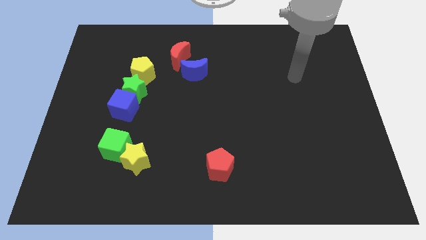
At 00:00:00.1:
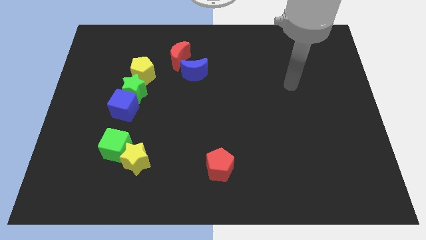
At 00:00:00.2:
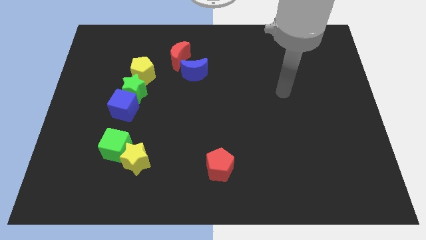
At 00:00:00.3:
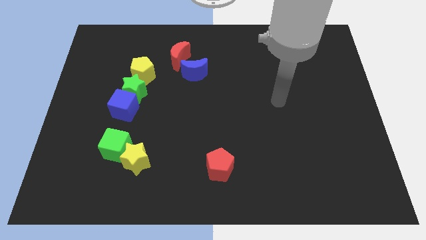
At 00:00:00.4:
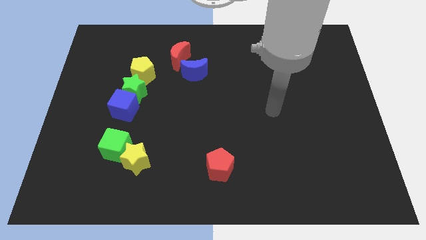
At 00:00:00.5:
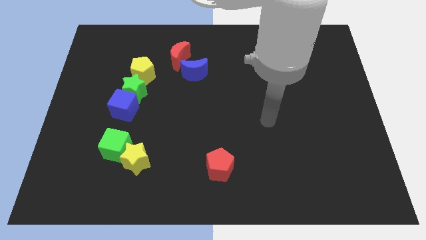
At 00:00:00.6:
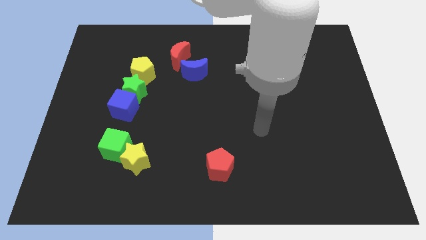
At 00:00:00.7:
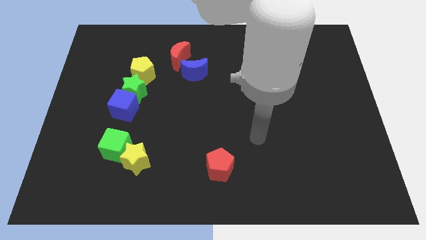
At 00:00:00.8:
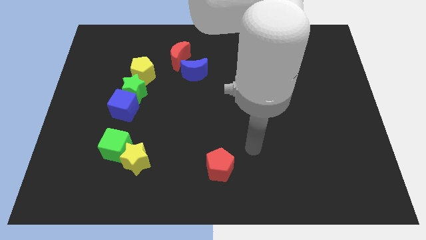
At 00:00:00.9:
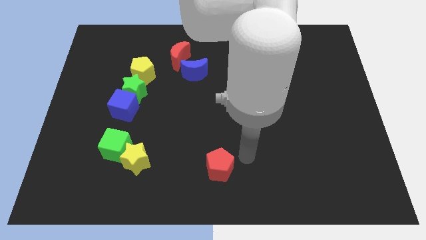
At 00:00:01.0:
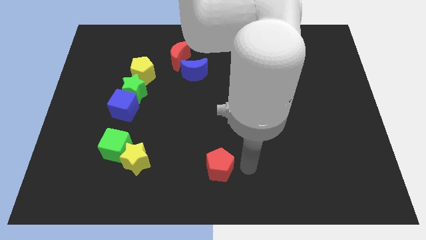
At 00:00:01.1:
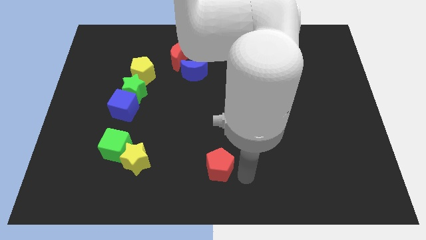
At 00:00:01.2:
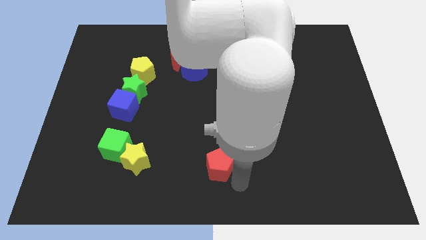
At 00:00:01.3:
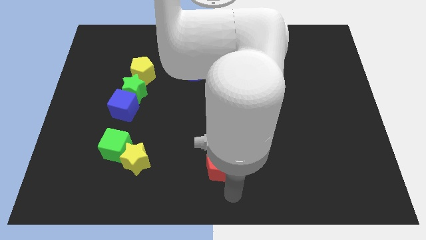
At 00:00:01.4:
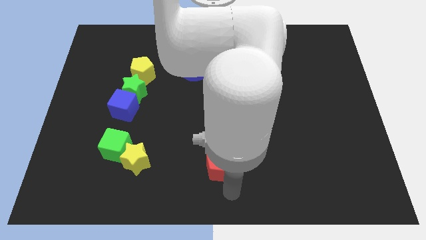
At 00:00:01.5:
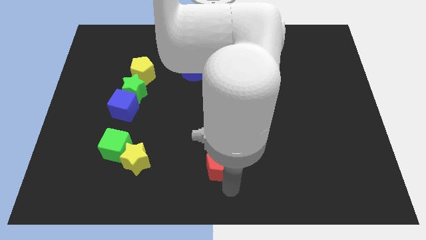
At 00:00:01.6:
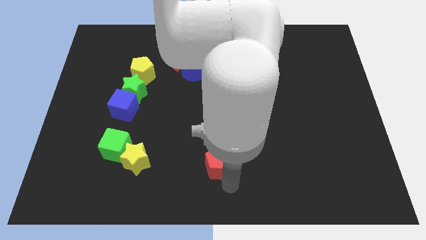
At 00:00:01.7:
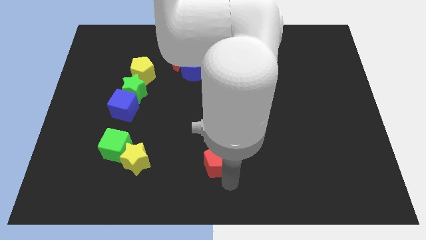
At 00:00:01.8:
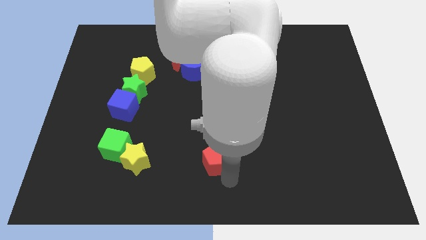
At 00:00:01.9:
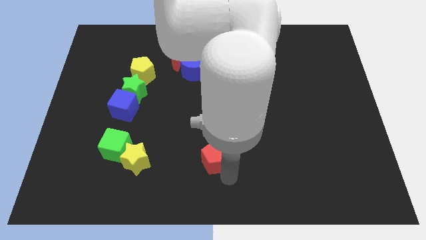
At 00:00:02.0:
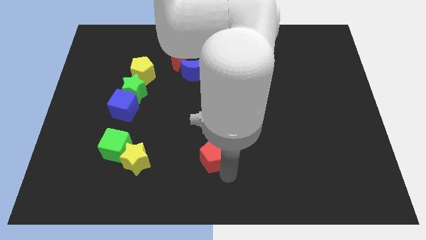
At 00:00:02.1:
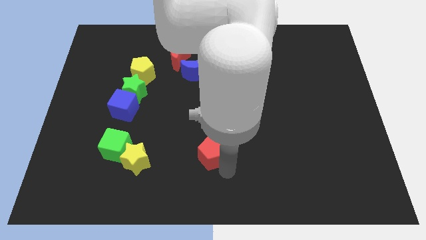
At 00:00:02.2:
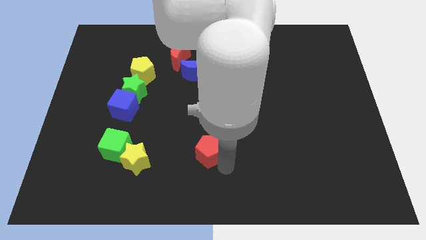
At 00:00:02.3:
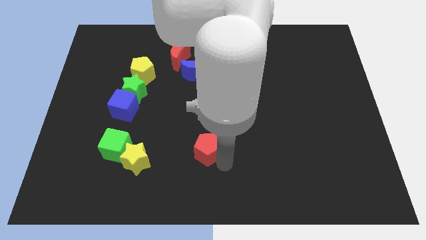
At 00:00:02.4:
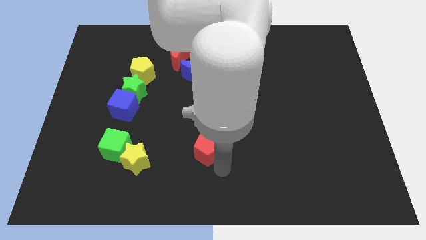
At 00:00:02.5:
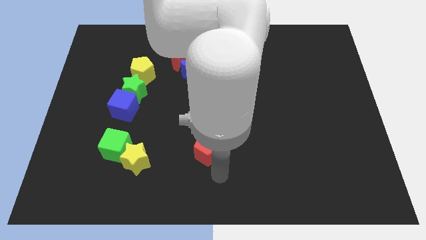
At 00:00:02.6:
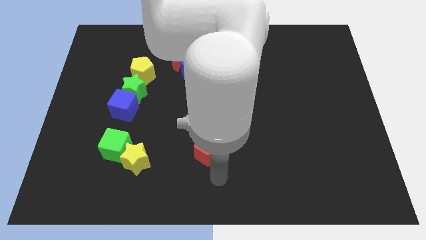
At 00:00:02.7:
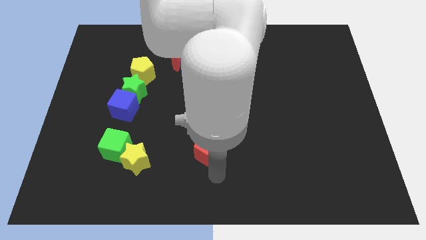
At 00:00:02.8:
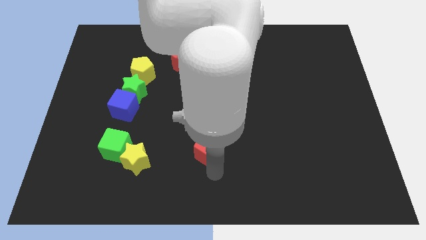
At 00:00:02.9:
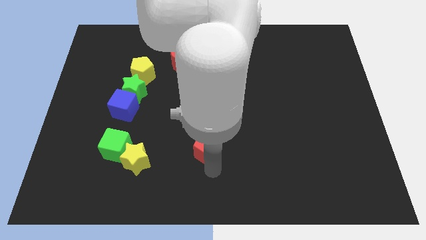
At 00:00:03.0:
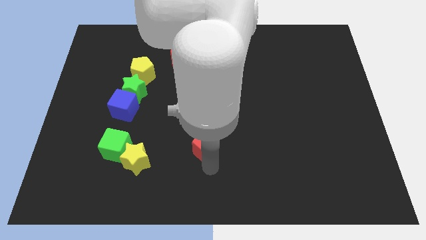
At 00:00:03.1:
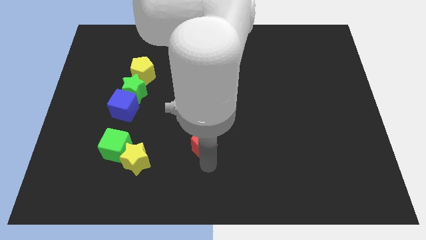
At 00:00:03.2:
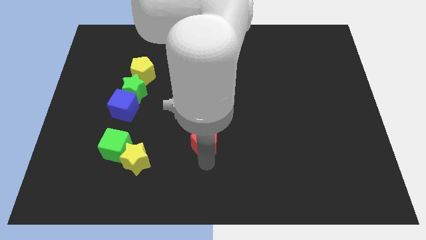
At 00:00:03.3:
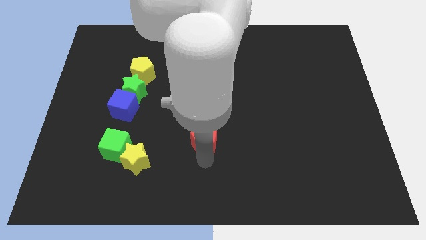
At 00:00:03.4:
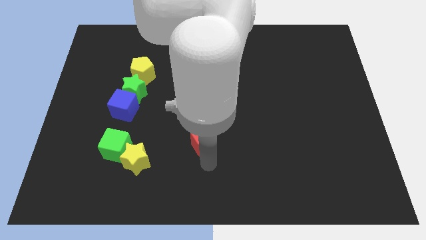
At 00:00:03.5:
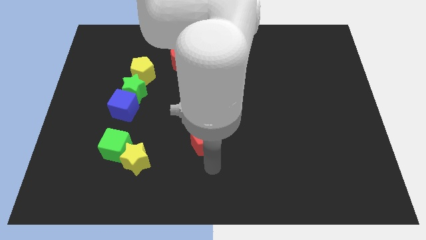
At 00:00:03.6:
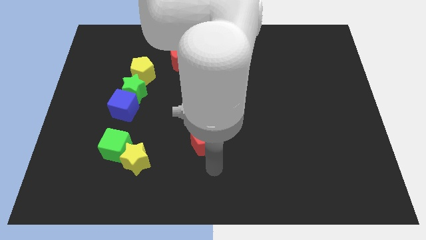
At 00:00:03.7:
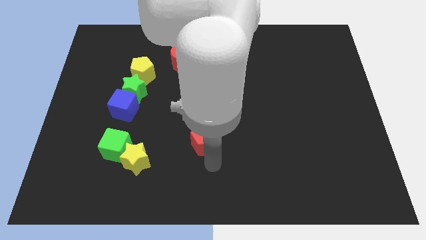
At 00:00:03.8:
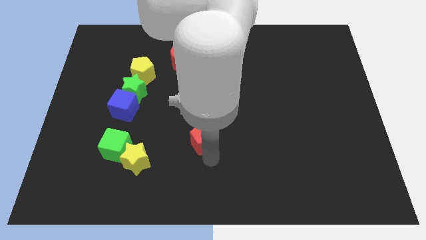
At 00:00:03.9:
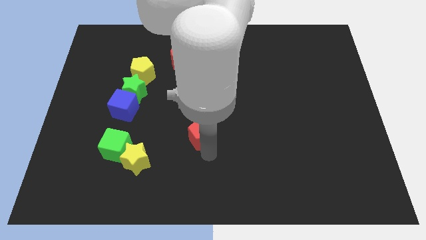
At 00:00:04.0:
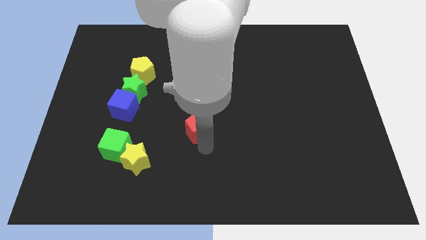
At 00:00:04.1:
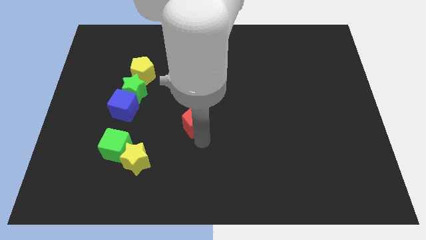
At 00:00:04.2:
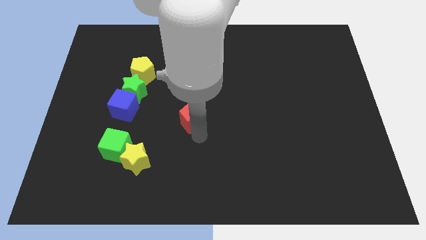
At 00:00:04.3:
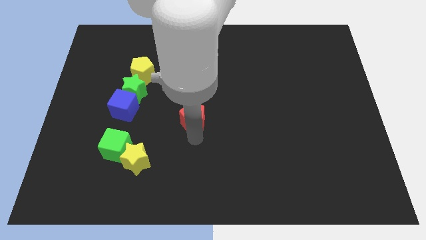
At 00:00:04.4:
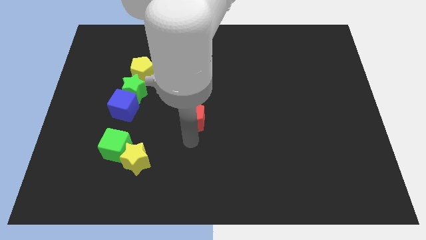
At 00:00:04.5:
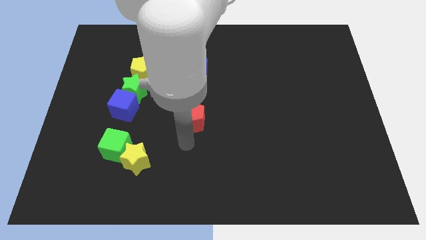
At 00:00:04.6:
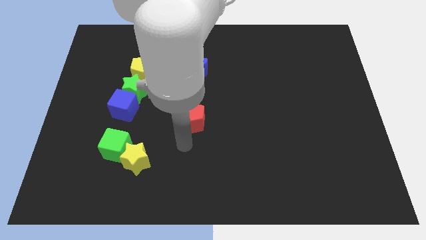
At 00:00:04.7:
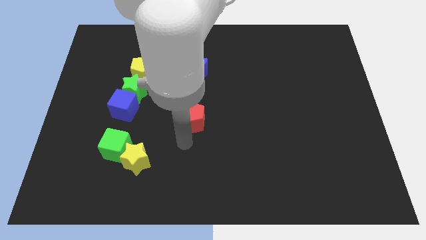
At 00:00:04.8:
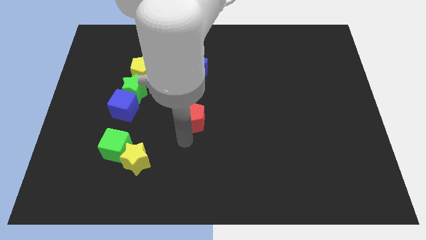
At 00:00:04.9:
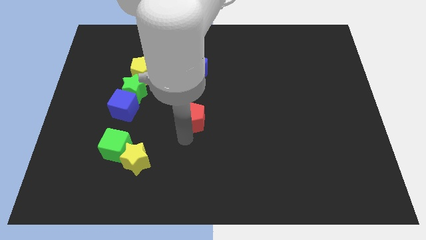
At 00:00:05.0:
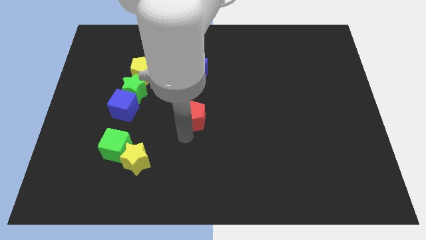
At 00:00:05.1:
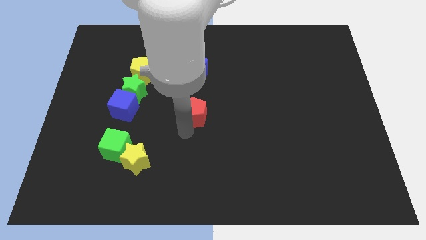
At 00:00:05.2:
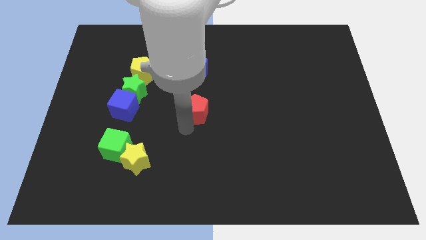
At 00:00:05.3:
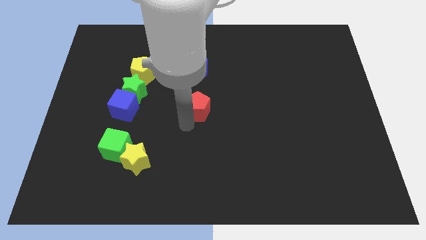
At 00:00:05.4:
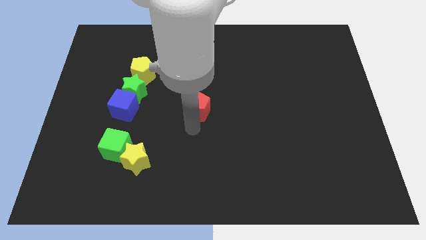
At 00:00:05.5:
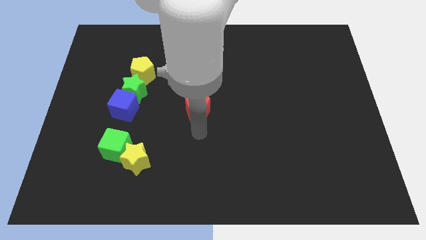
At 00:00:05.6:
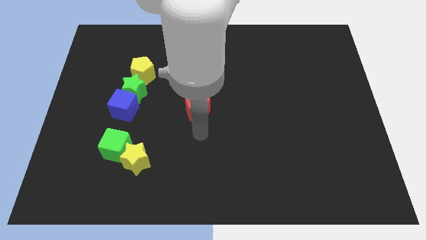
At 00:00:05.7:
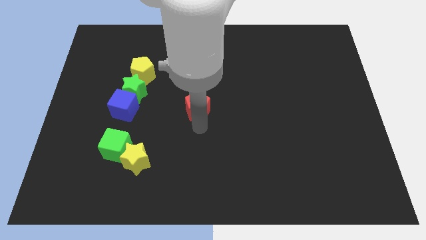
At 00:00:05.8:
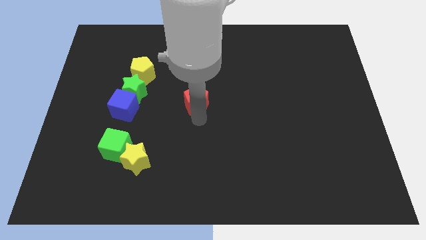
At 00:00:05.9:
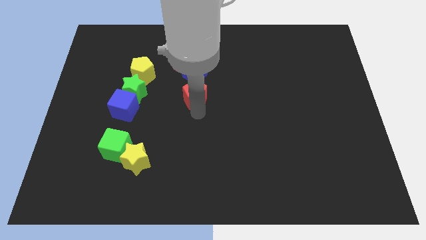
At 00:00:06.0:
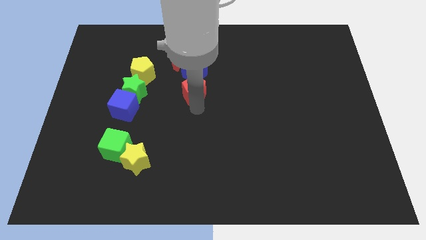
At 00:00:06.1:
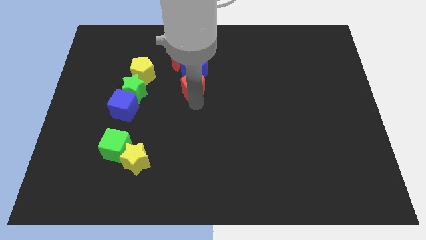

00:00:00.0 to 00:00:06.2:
move the red pentagon close to the blue moon

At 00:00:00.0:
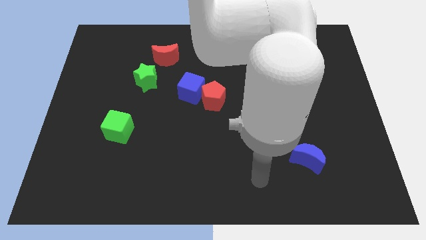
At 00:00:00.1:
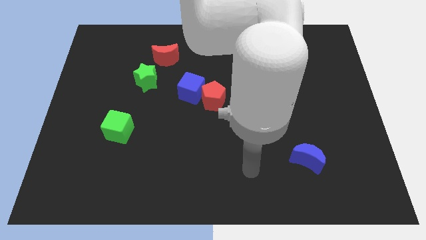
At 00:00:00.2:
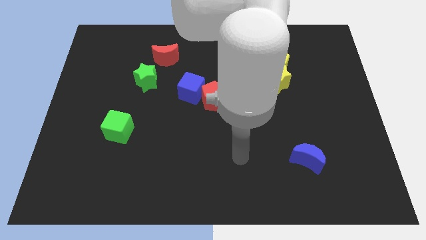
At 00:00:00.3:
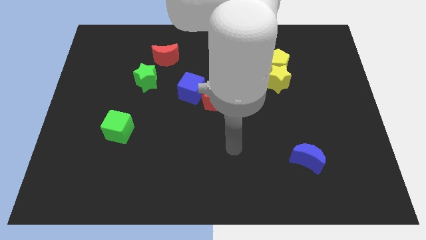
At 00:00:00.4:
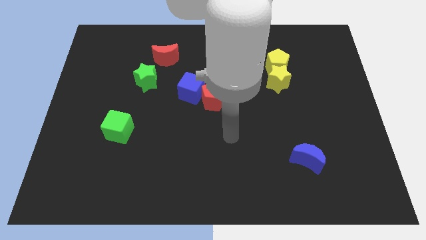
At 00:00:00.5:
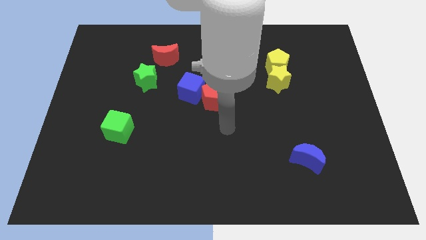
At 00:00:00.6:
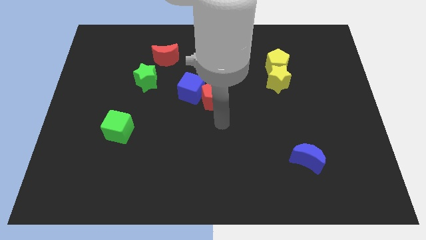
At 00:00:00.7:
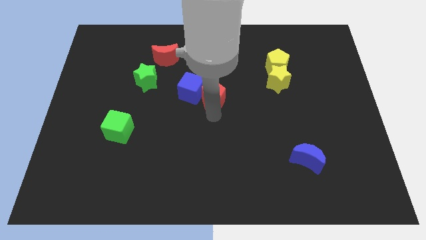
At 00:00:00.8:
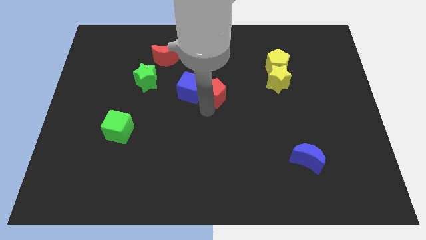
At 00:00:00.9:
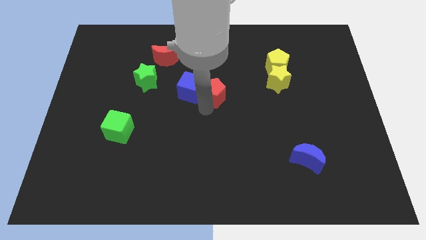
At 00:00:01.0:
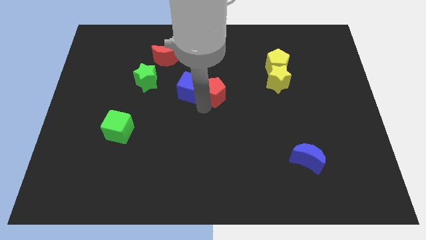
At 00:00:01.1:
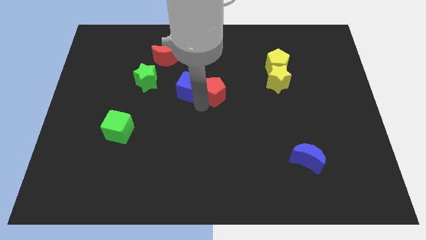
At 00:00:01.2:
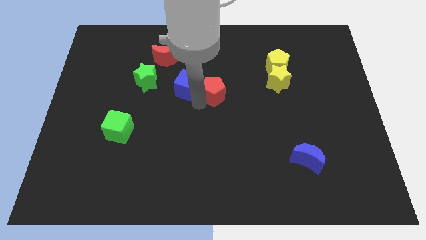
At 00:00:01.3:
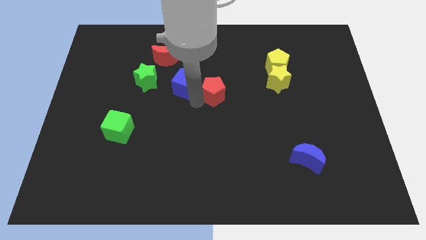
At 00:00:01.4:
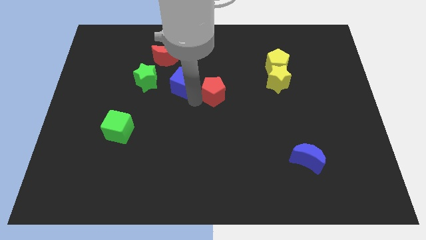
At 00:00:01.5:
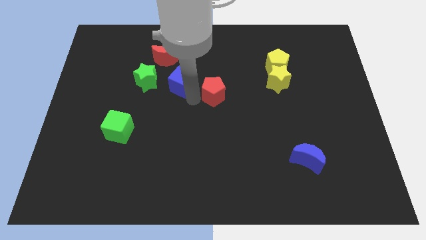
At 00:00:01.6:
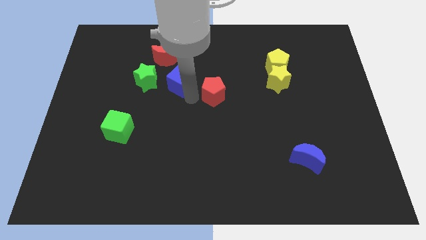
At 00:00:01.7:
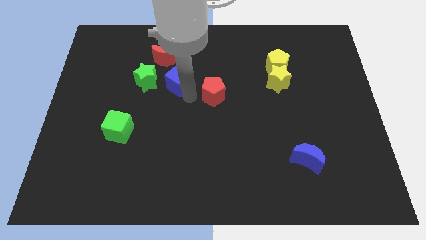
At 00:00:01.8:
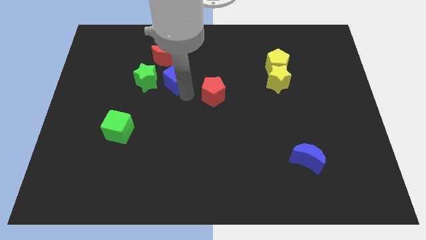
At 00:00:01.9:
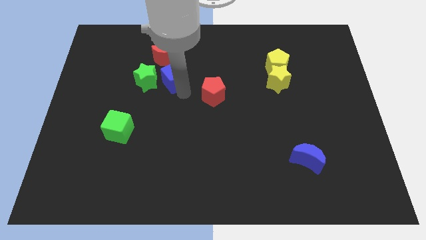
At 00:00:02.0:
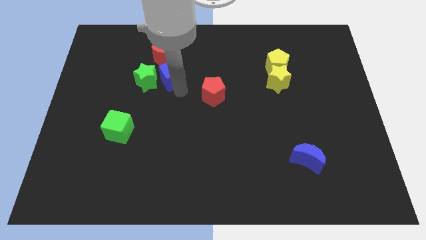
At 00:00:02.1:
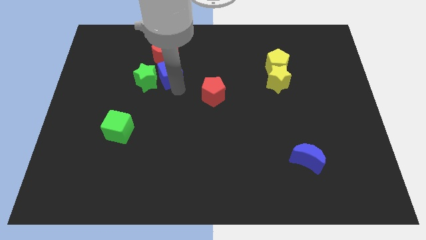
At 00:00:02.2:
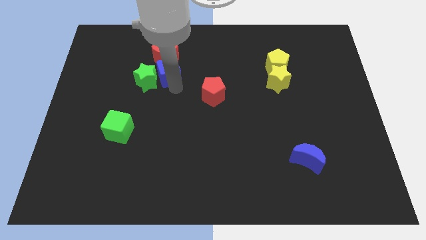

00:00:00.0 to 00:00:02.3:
slide the blue cube towards the red moon
